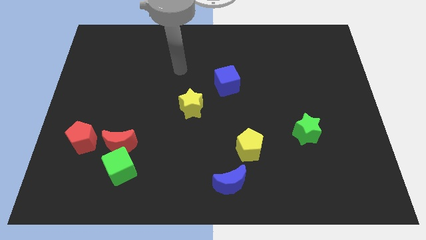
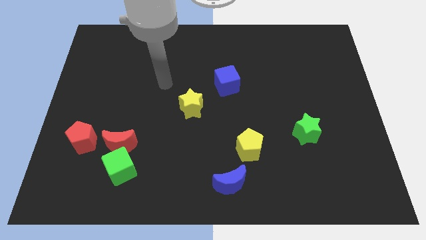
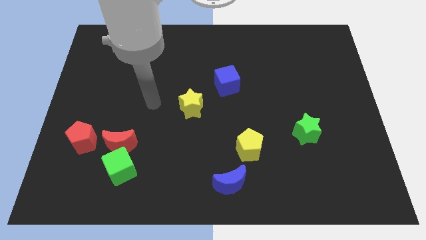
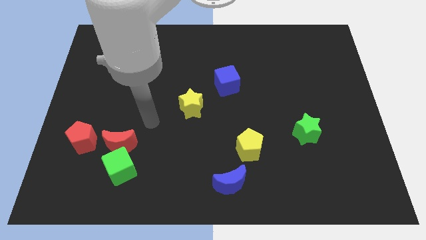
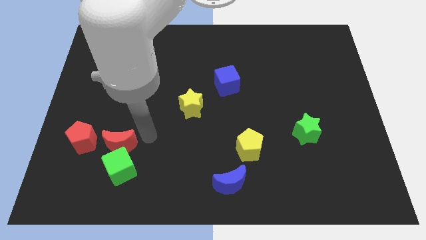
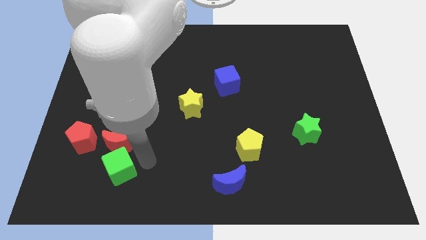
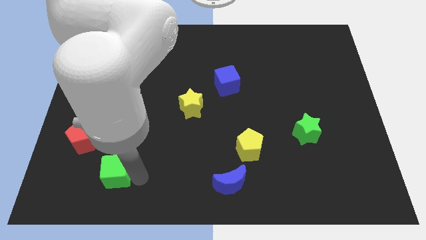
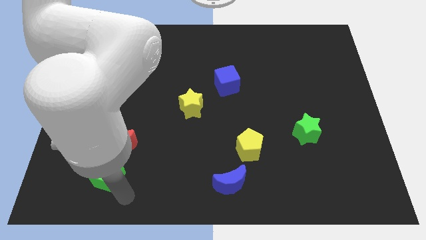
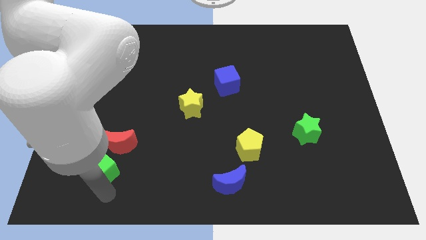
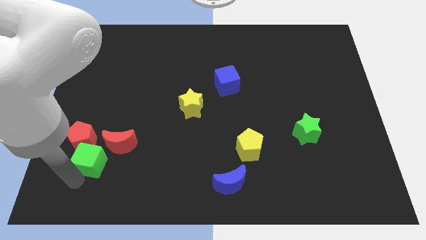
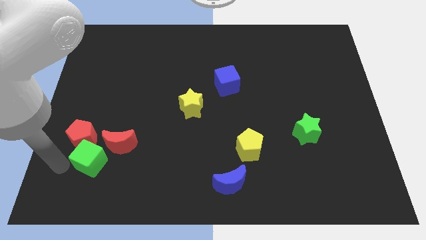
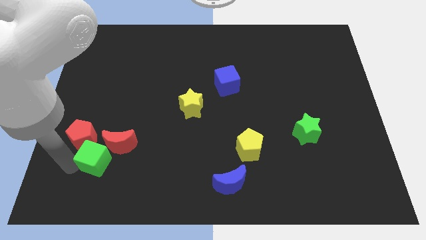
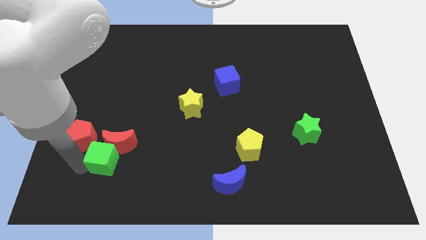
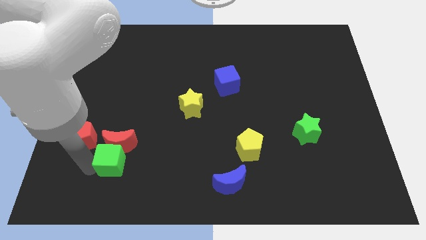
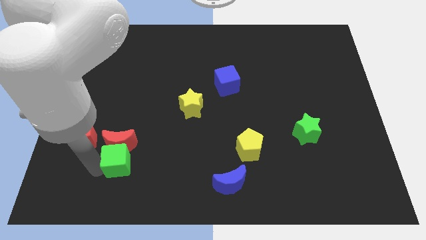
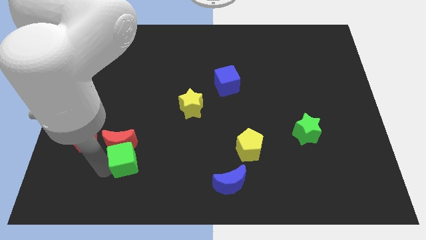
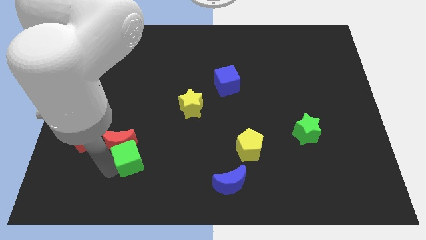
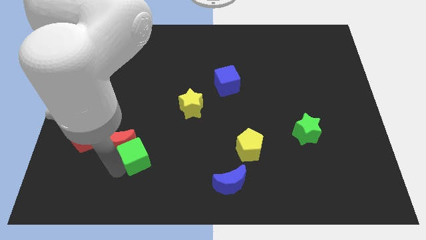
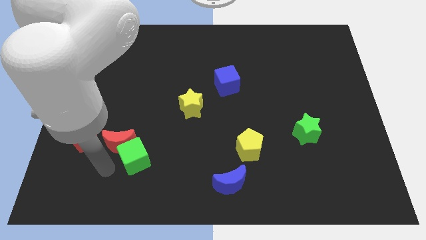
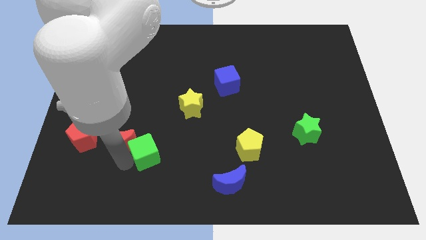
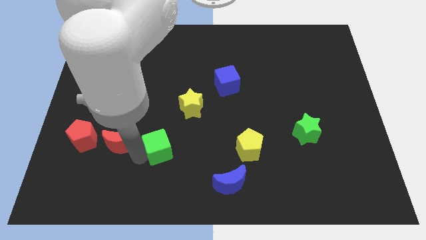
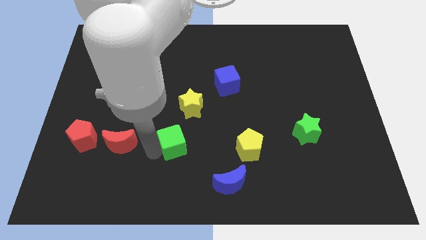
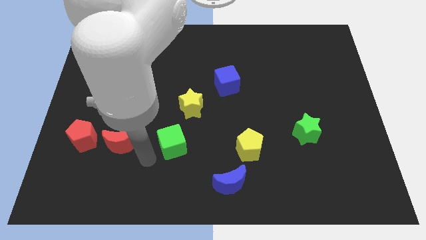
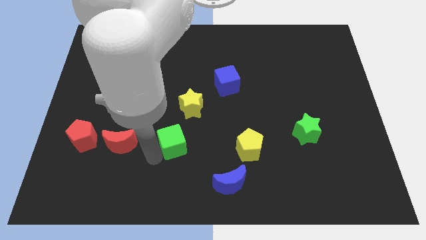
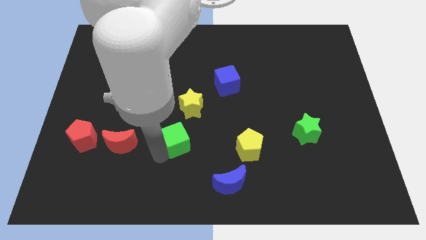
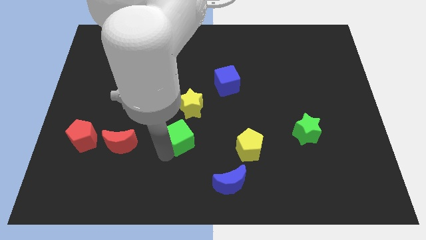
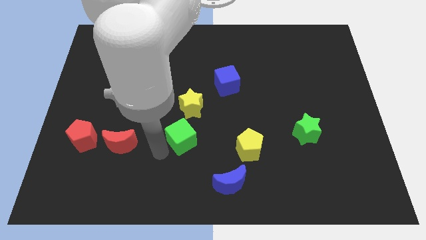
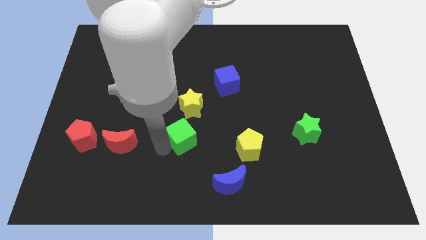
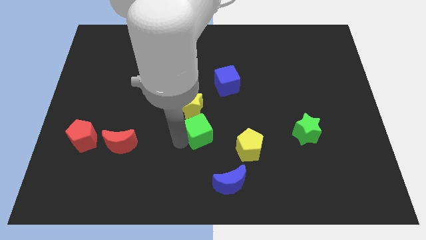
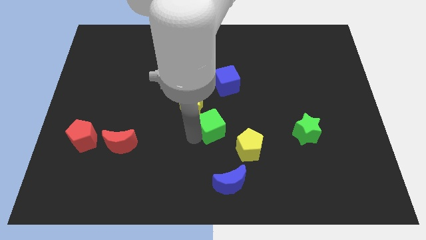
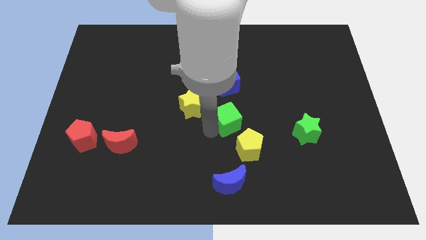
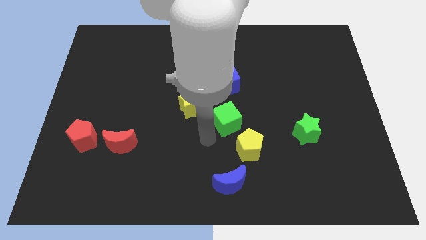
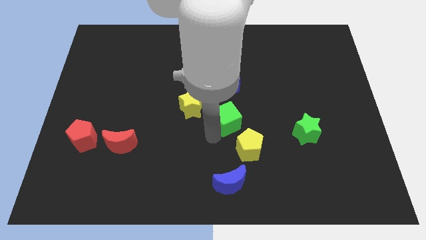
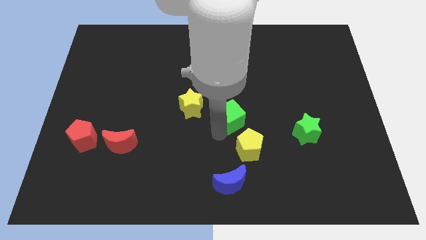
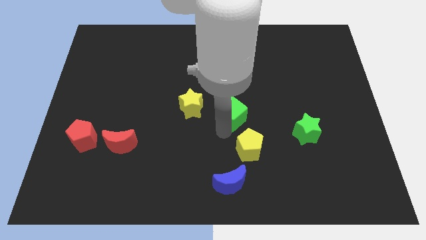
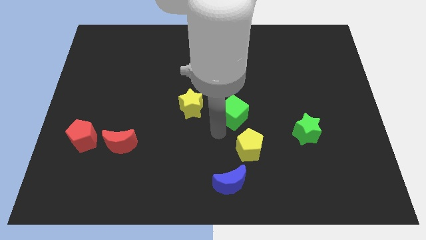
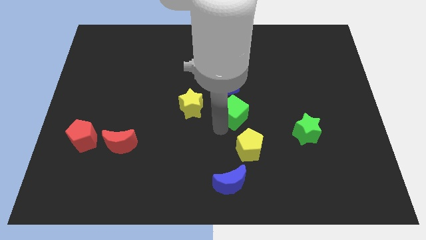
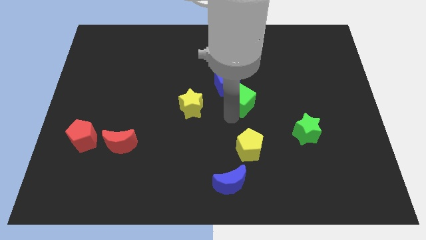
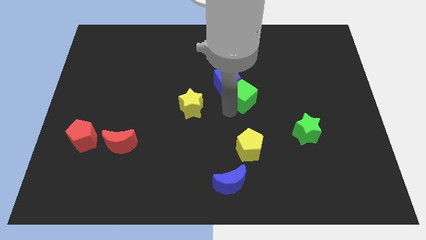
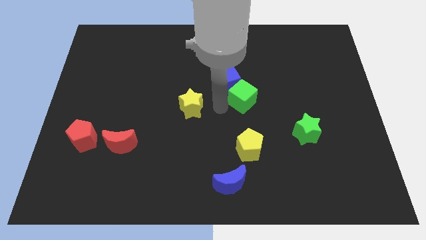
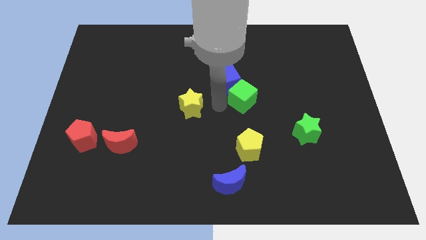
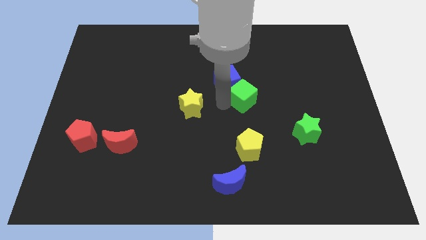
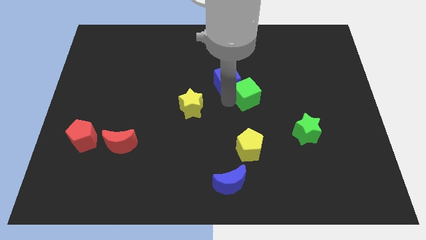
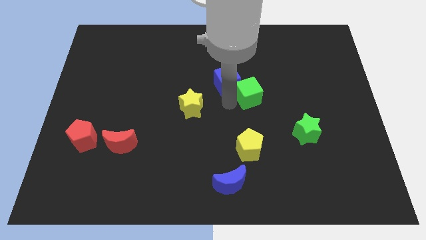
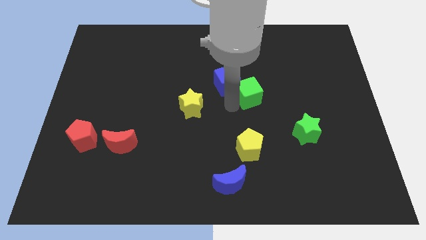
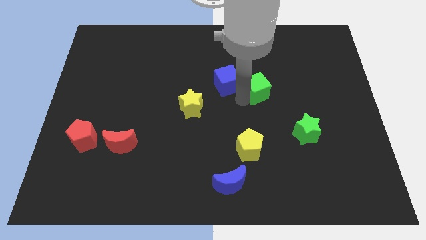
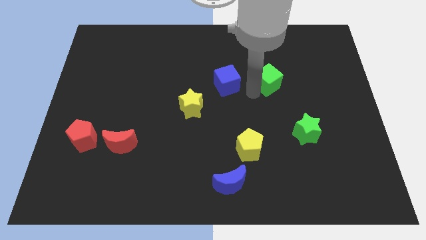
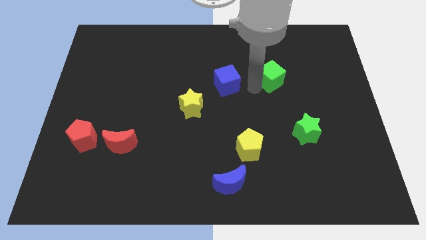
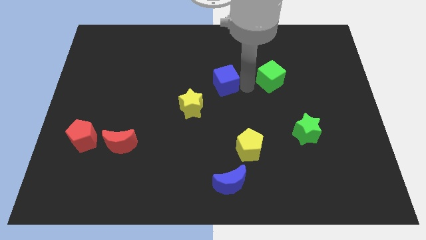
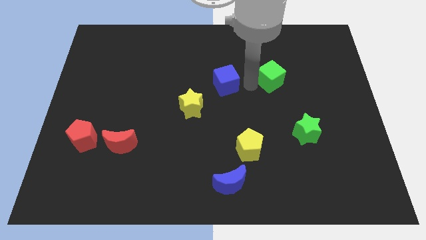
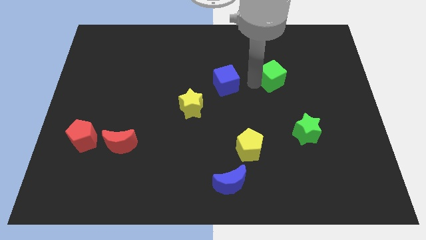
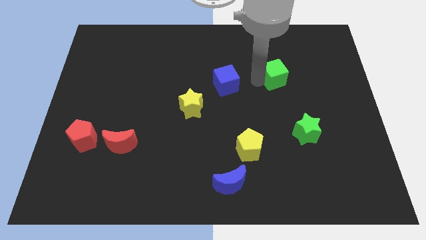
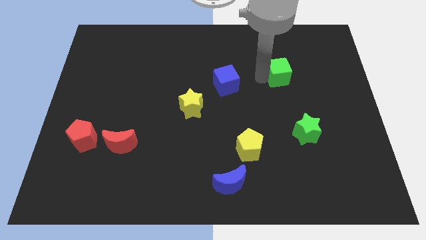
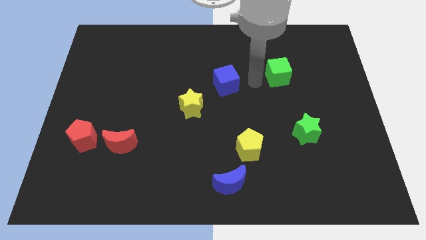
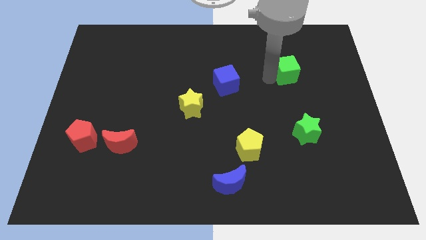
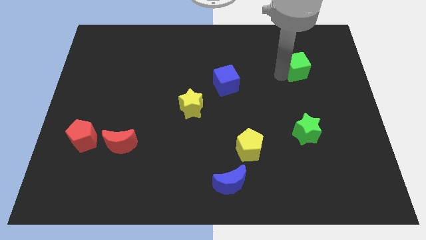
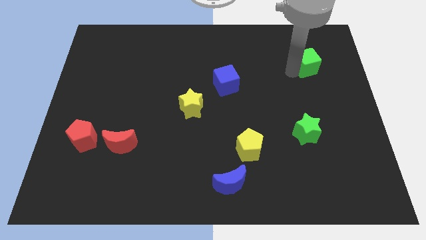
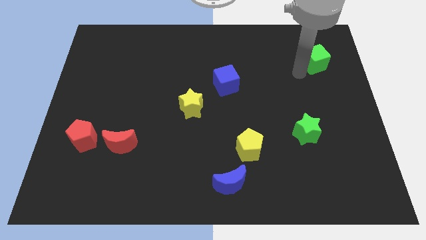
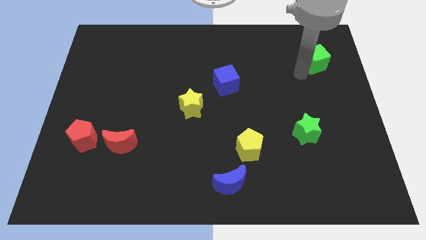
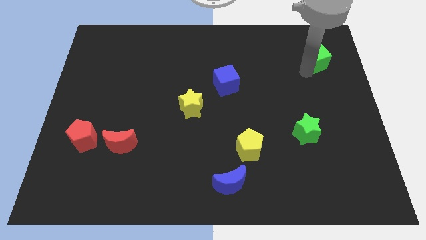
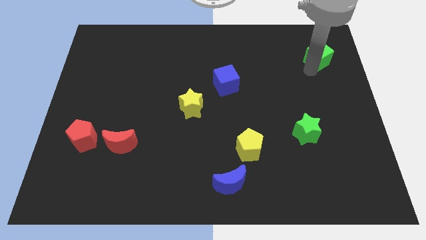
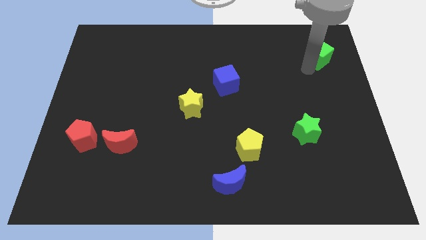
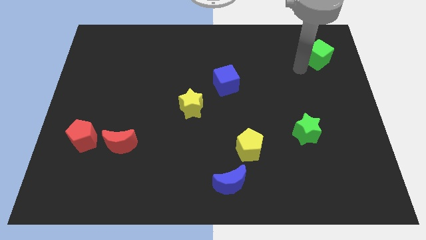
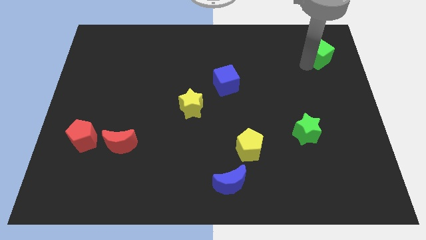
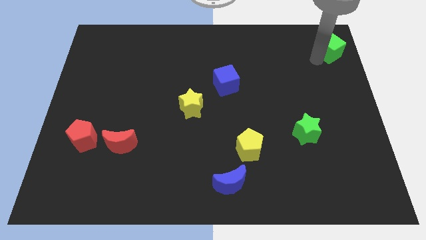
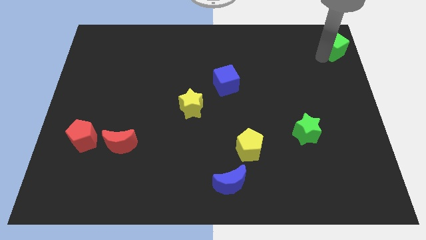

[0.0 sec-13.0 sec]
slide the green cube to the upper right corner

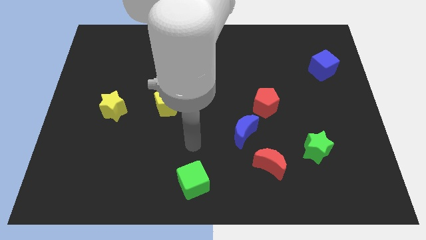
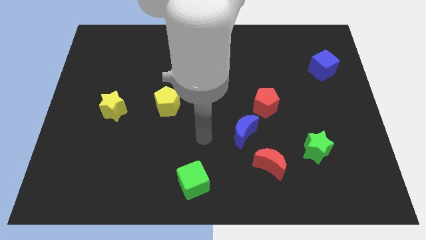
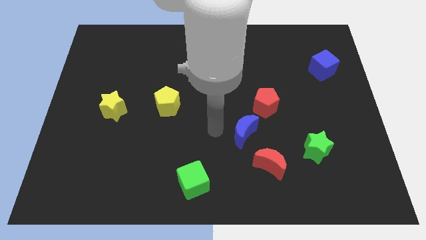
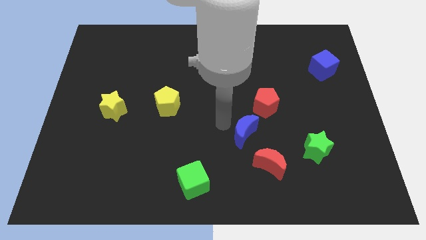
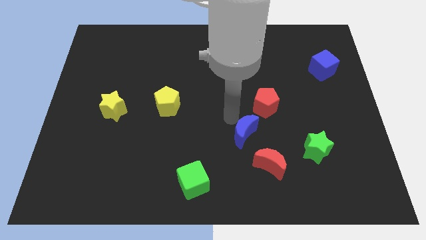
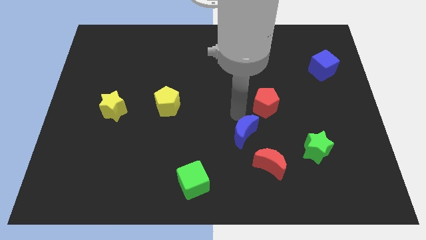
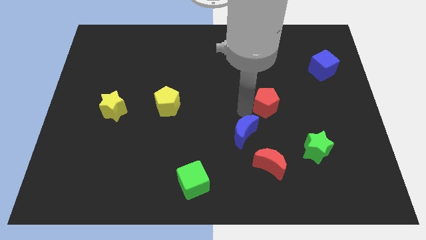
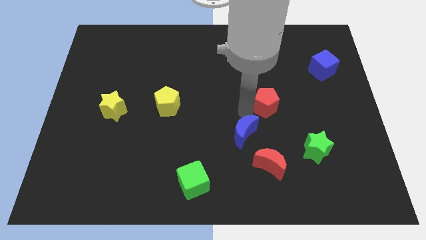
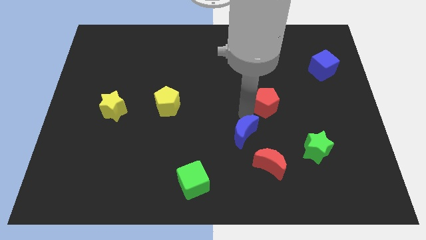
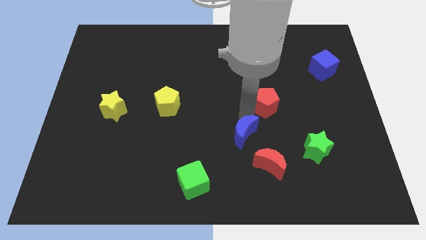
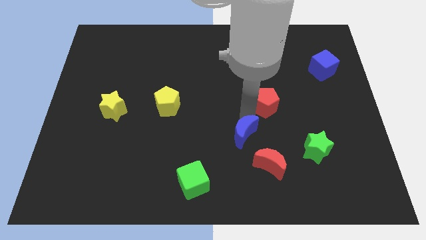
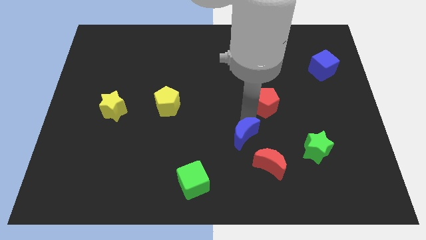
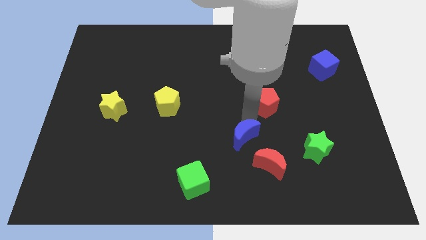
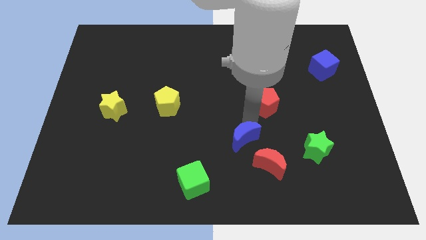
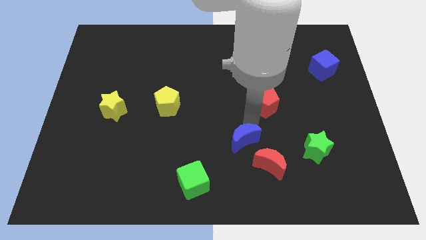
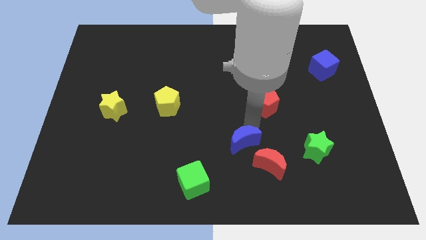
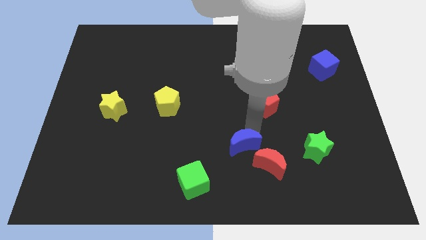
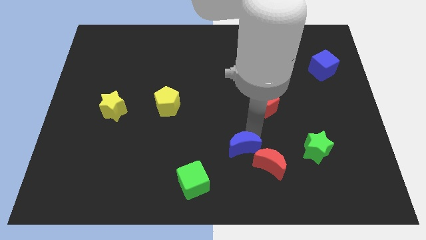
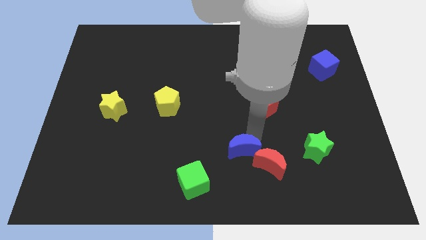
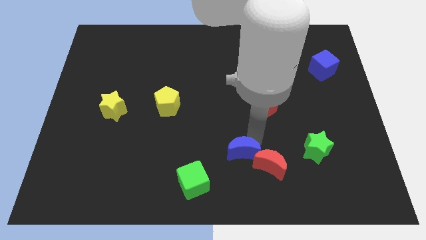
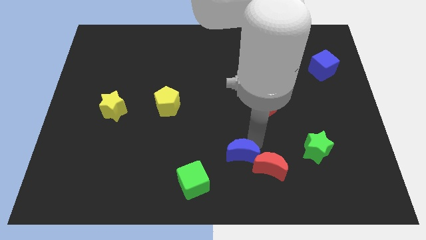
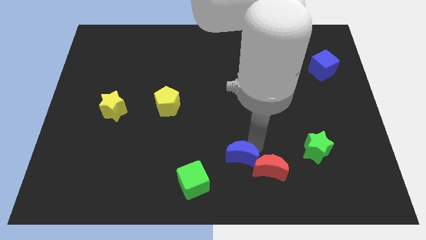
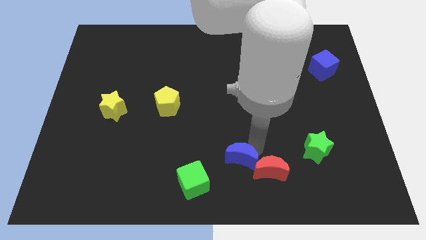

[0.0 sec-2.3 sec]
slide the blue moon to the bottom
